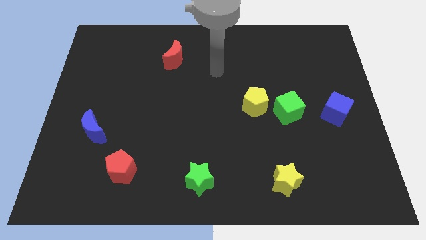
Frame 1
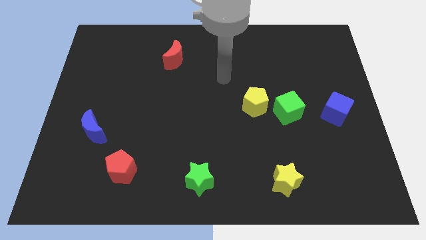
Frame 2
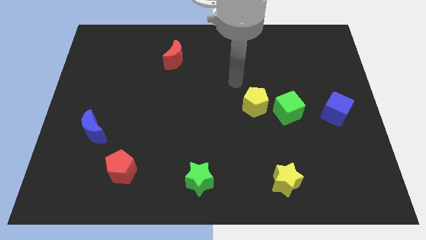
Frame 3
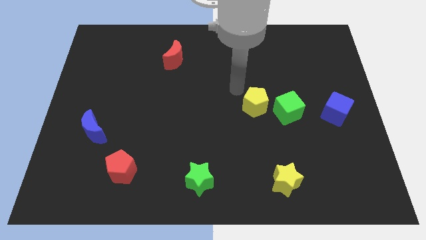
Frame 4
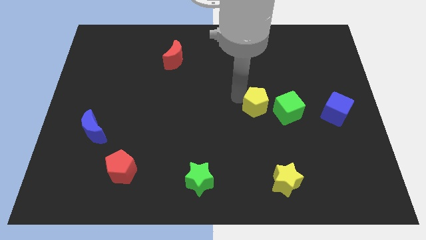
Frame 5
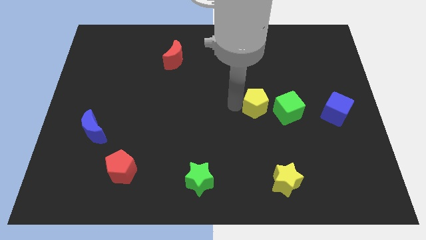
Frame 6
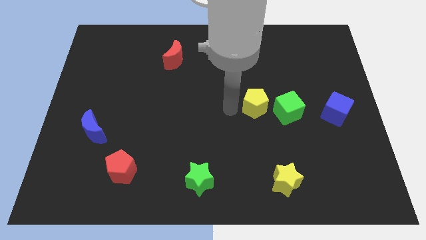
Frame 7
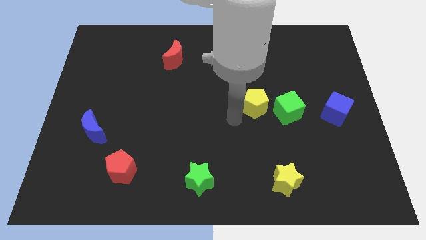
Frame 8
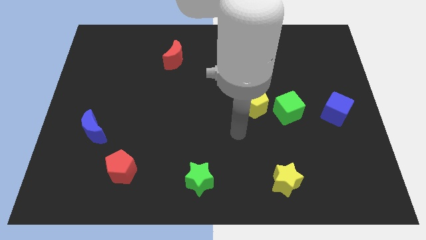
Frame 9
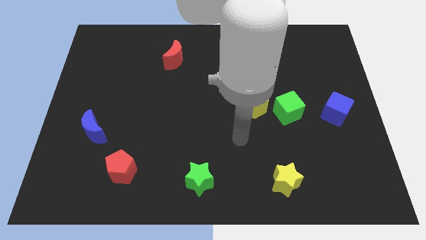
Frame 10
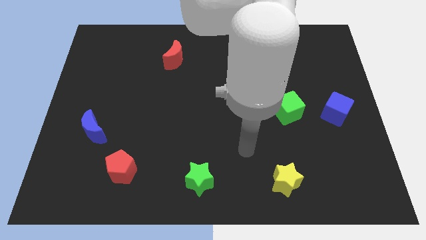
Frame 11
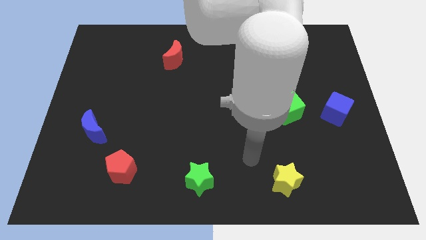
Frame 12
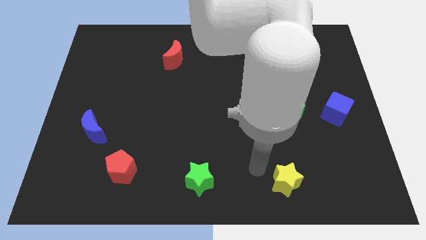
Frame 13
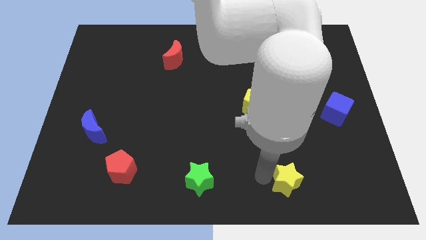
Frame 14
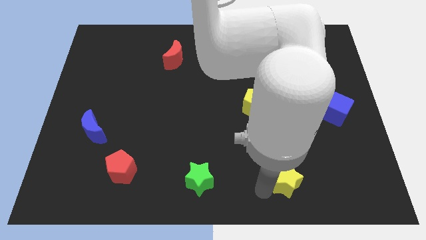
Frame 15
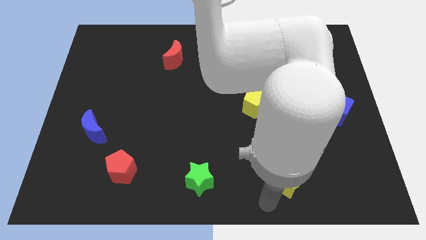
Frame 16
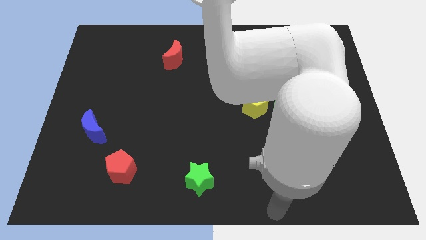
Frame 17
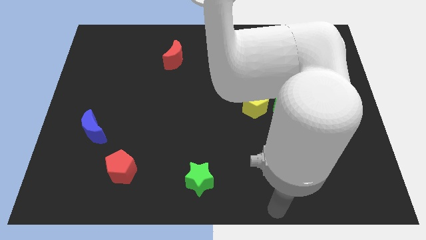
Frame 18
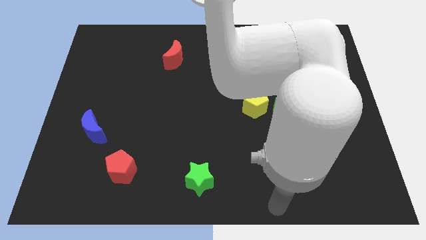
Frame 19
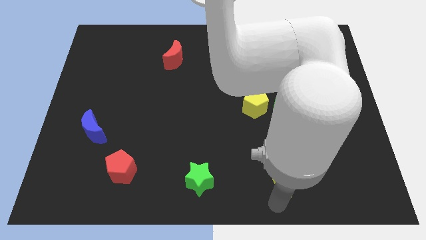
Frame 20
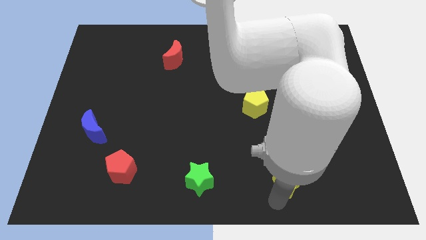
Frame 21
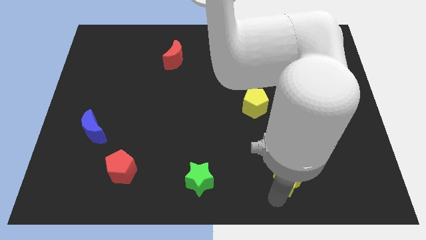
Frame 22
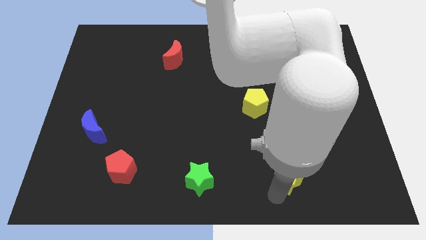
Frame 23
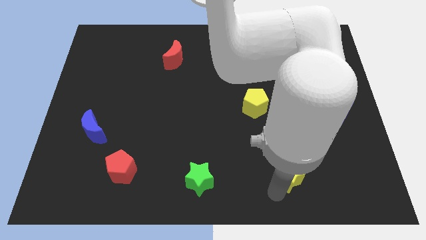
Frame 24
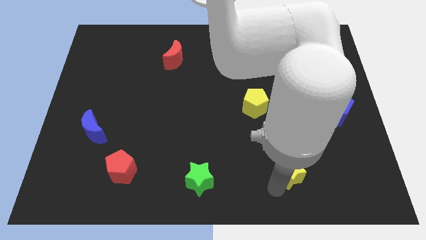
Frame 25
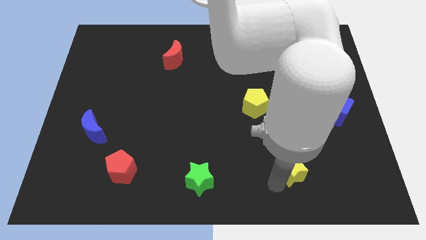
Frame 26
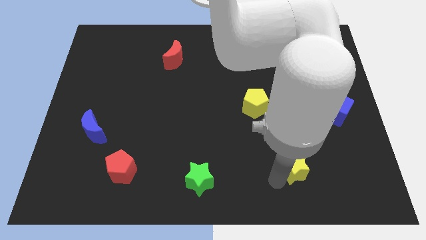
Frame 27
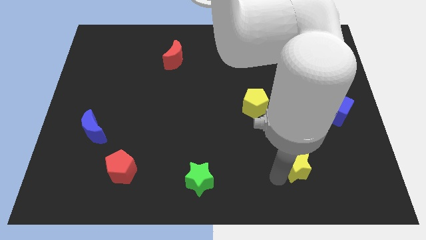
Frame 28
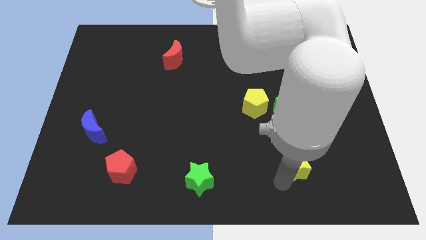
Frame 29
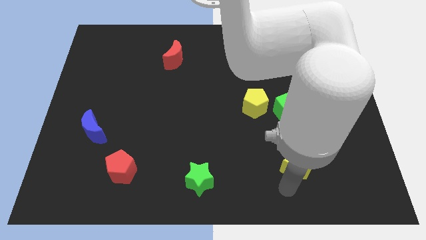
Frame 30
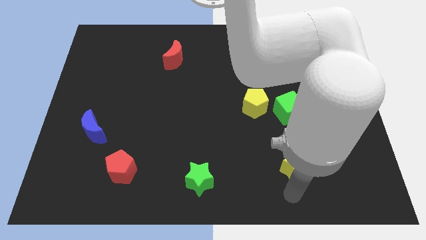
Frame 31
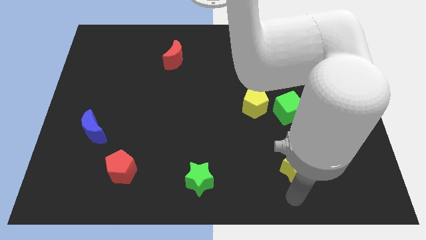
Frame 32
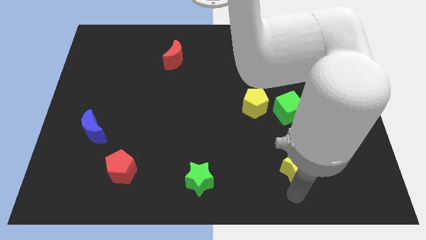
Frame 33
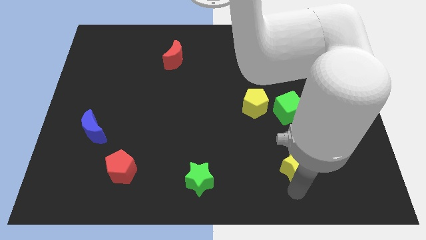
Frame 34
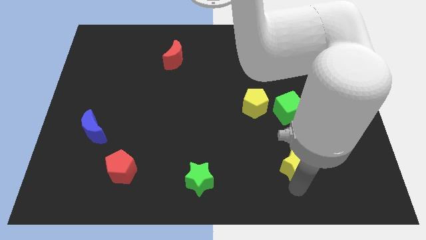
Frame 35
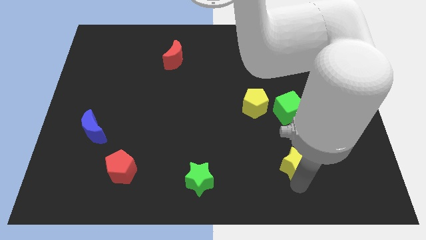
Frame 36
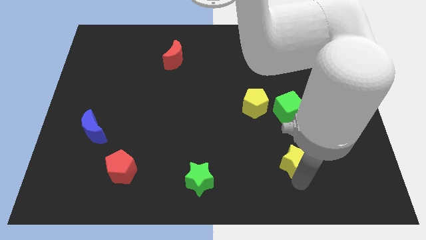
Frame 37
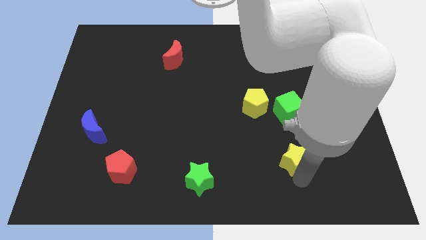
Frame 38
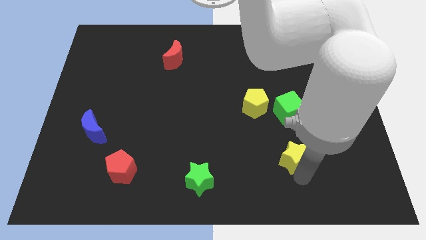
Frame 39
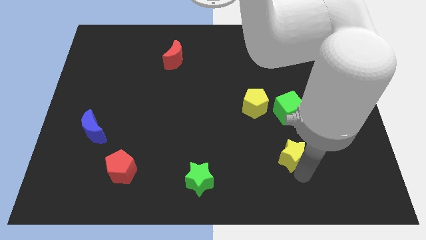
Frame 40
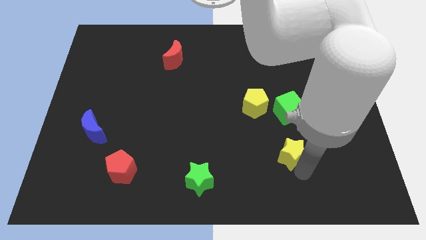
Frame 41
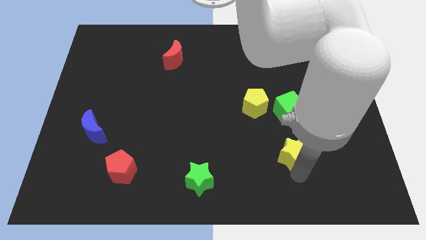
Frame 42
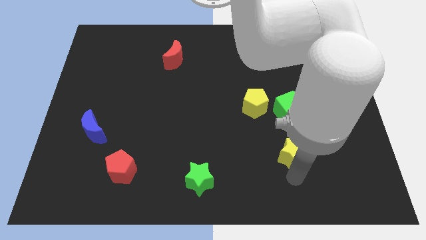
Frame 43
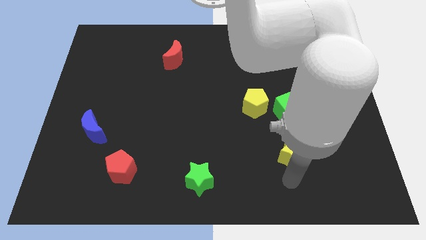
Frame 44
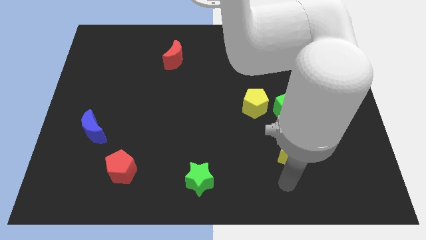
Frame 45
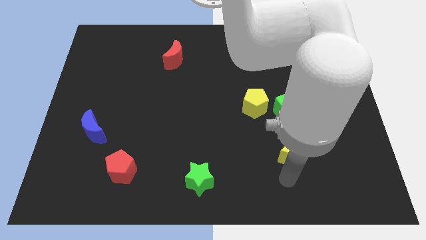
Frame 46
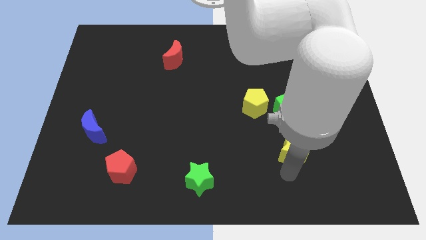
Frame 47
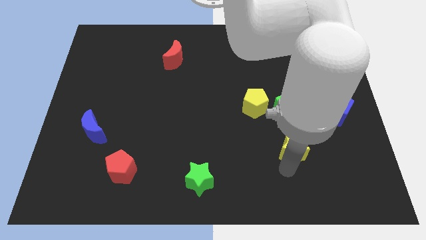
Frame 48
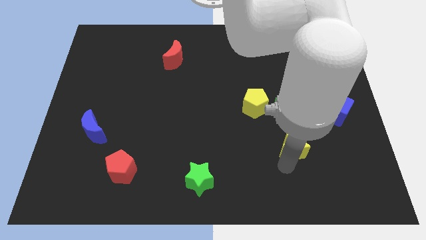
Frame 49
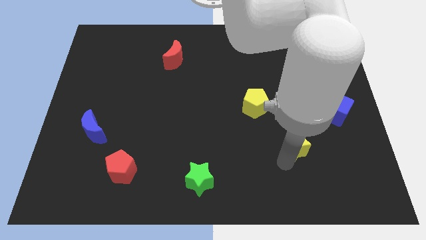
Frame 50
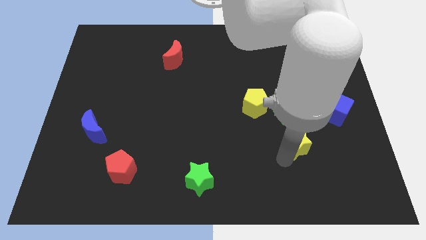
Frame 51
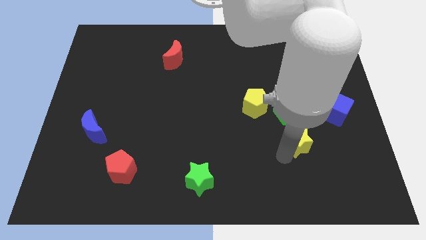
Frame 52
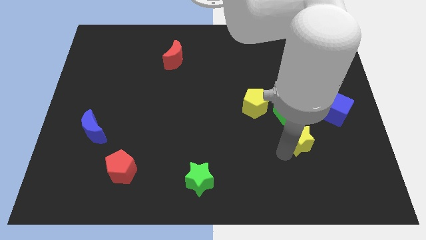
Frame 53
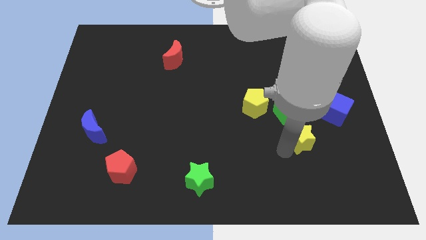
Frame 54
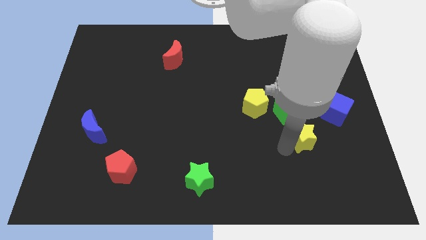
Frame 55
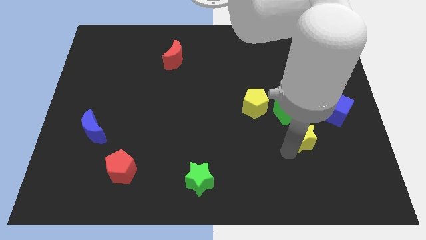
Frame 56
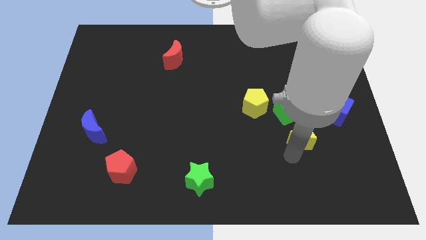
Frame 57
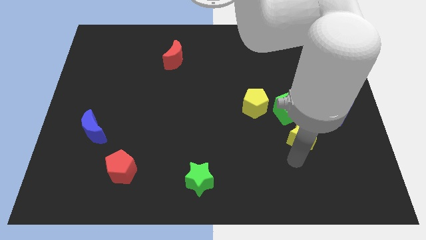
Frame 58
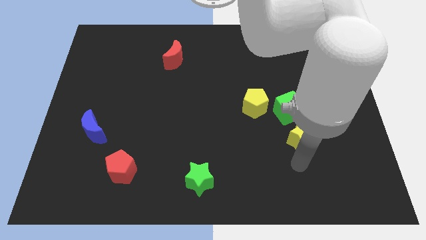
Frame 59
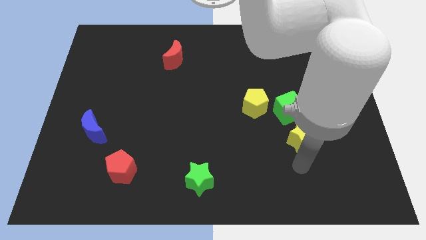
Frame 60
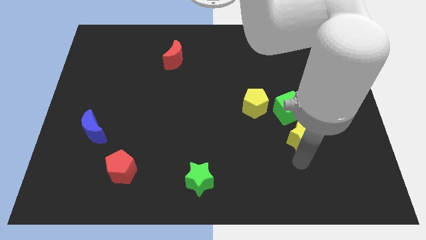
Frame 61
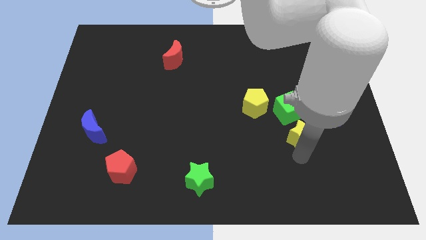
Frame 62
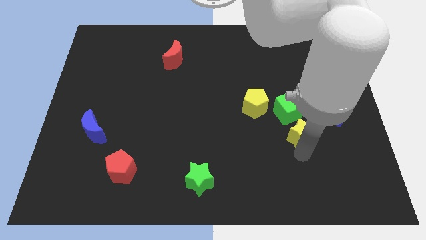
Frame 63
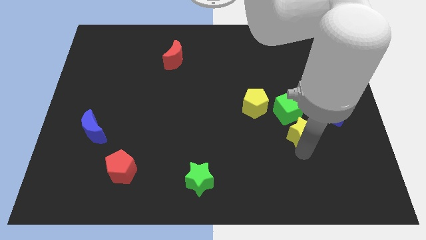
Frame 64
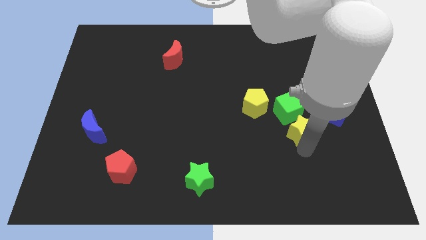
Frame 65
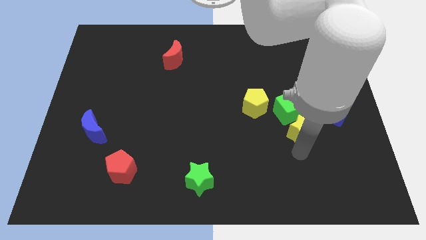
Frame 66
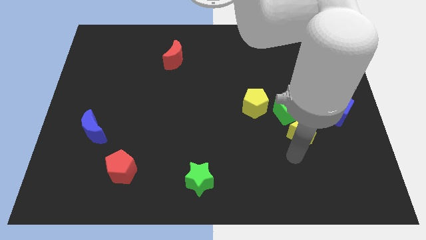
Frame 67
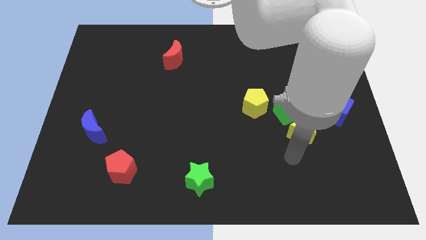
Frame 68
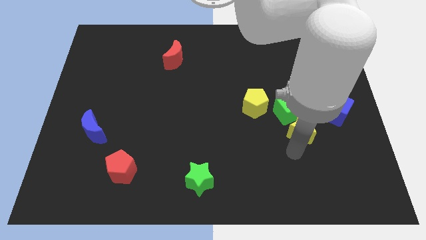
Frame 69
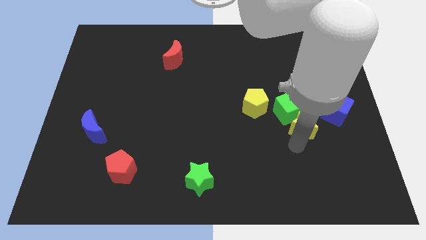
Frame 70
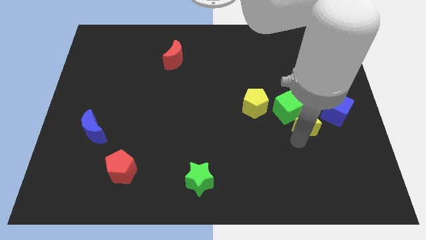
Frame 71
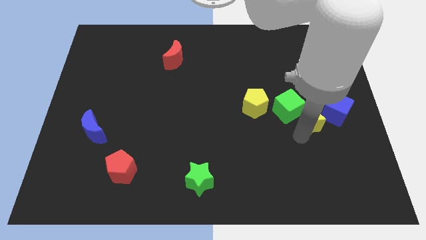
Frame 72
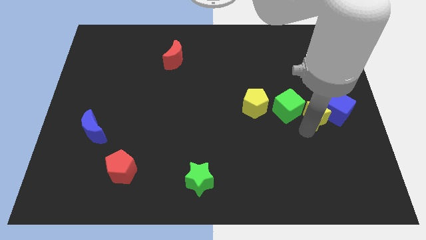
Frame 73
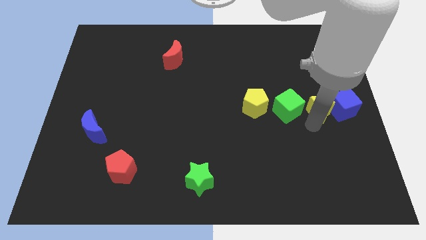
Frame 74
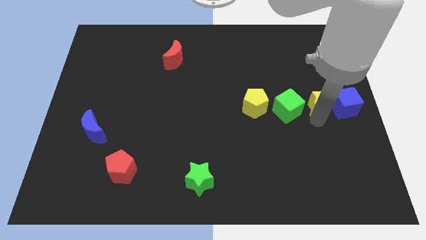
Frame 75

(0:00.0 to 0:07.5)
put the yellow star diagonally up and to the right of the green cube

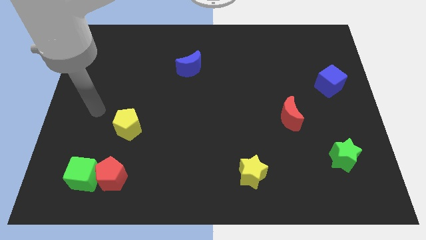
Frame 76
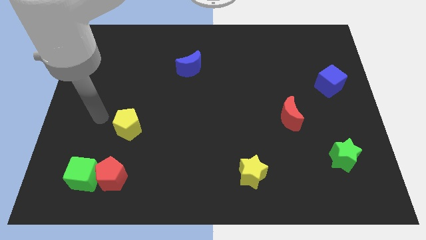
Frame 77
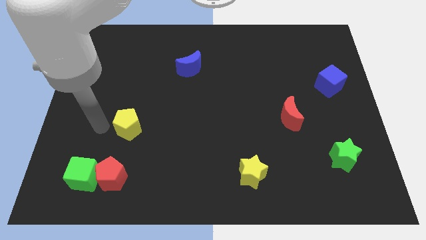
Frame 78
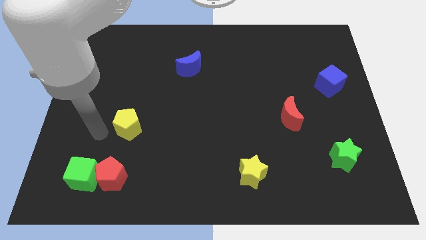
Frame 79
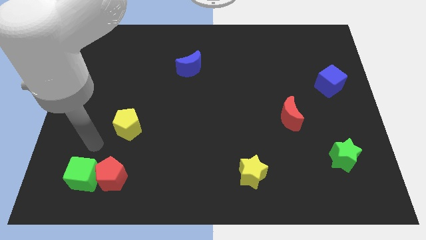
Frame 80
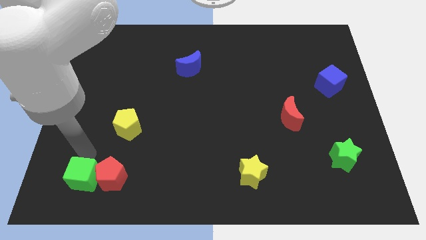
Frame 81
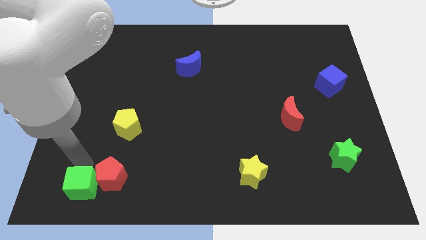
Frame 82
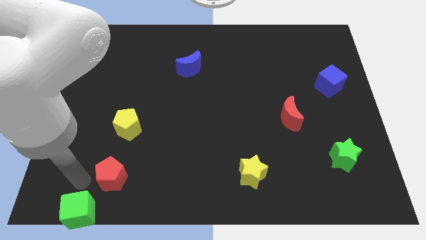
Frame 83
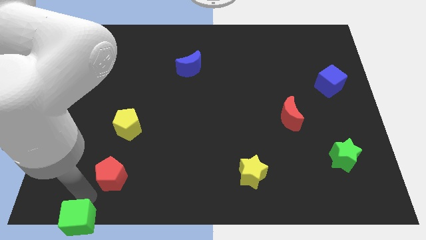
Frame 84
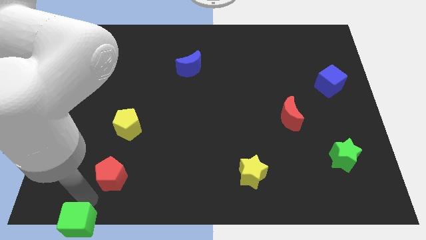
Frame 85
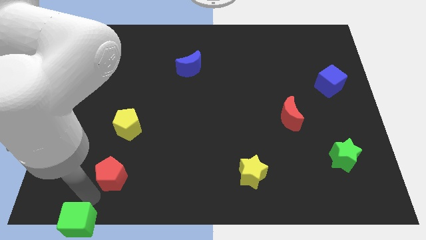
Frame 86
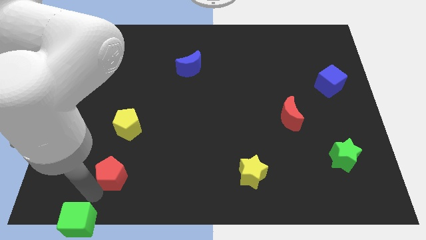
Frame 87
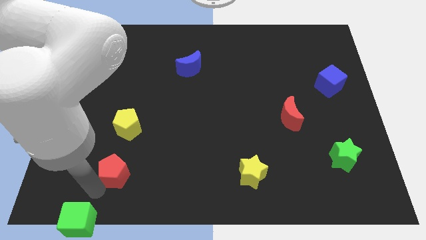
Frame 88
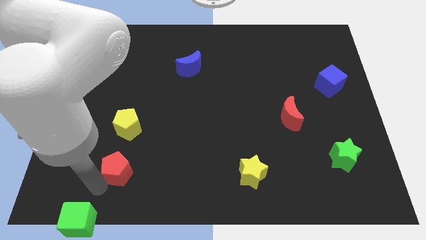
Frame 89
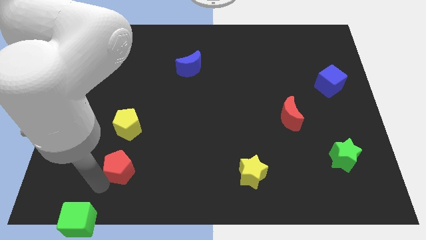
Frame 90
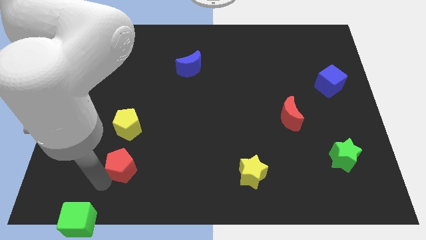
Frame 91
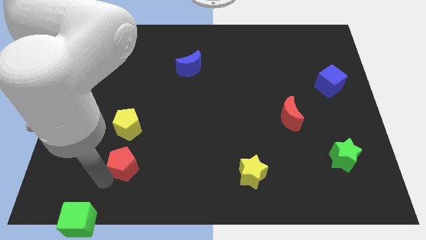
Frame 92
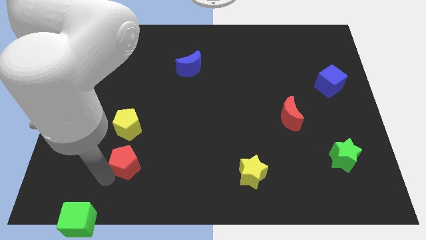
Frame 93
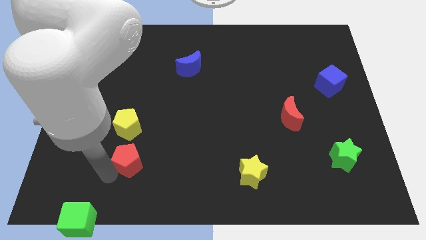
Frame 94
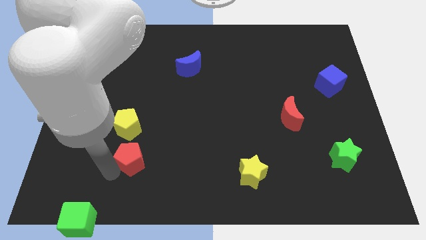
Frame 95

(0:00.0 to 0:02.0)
move the red pentagon to the bottom right side of the yellow pentagon
